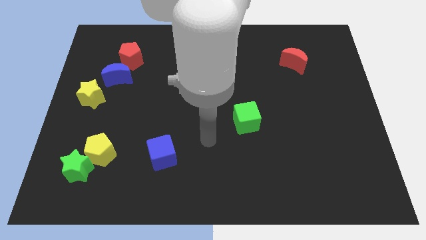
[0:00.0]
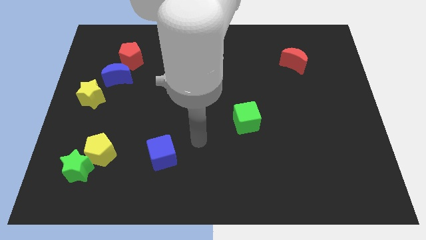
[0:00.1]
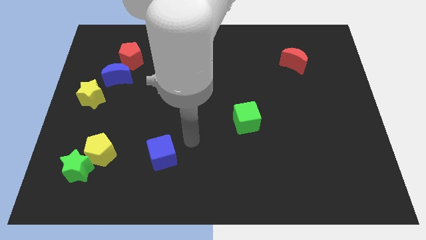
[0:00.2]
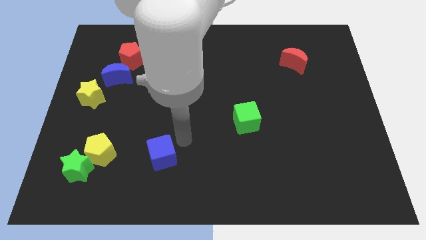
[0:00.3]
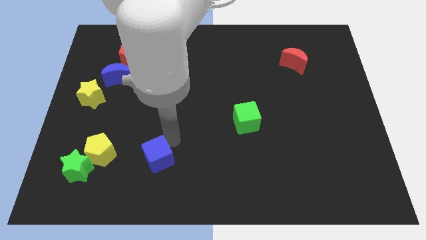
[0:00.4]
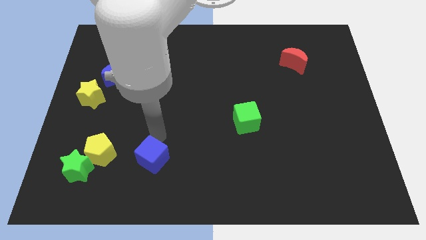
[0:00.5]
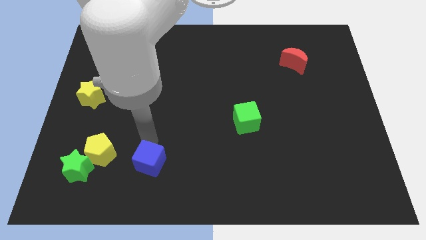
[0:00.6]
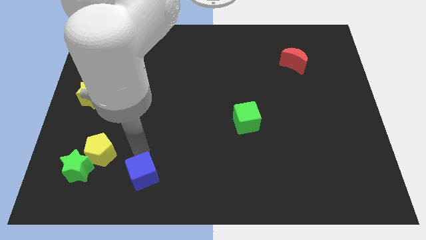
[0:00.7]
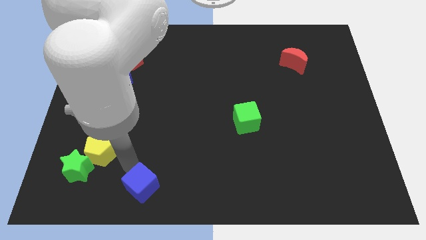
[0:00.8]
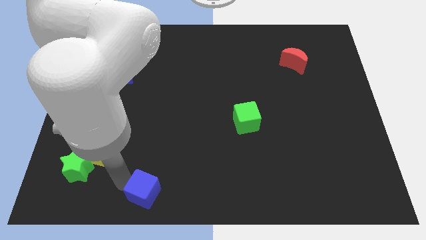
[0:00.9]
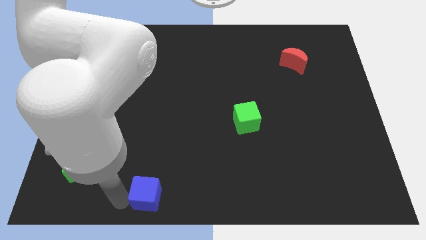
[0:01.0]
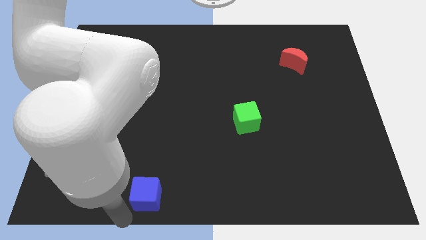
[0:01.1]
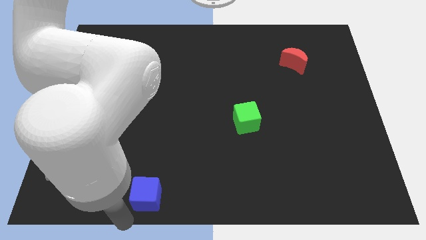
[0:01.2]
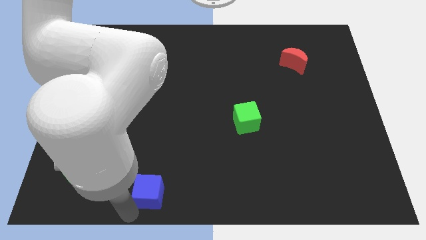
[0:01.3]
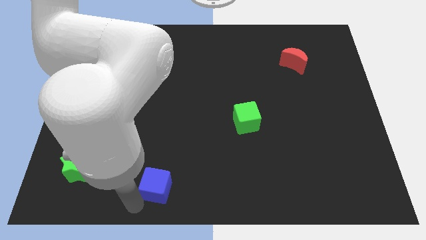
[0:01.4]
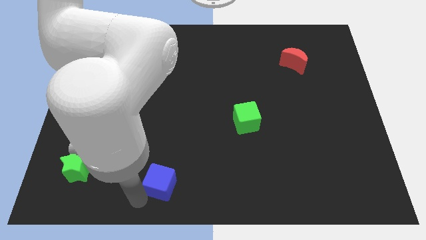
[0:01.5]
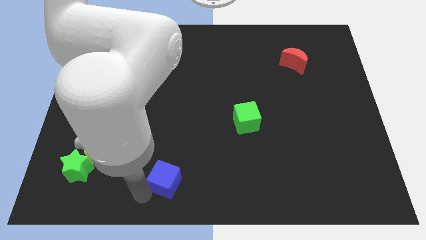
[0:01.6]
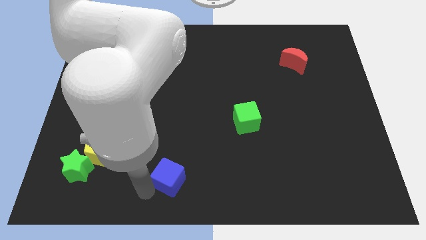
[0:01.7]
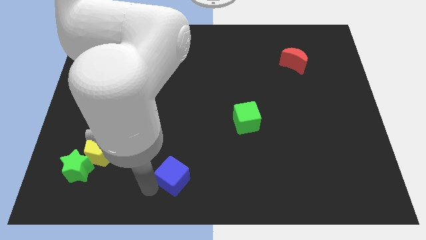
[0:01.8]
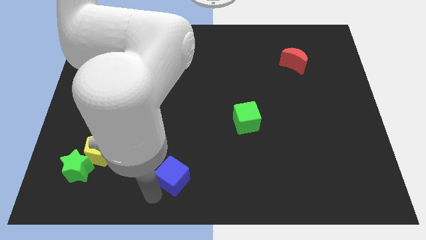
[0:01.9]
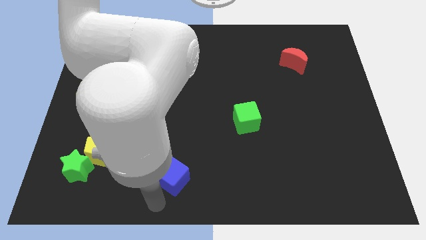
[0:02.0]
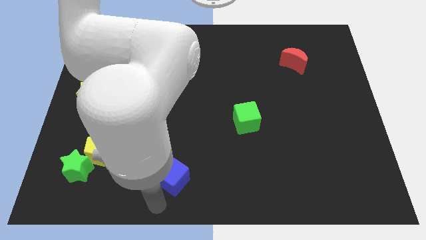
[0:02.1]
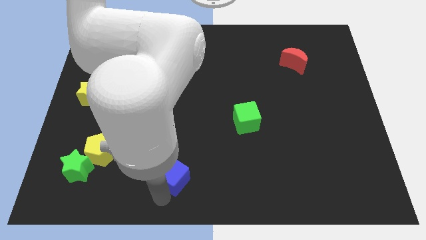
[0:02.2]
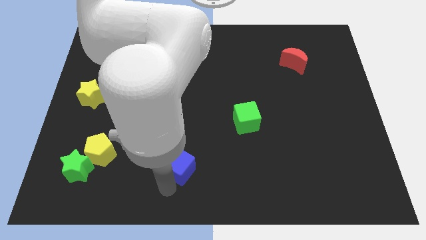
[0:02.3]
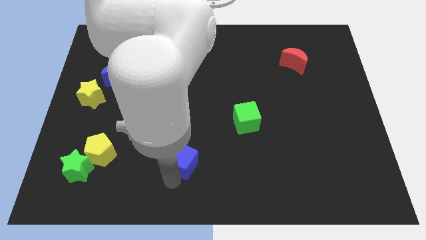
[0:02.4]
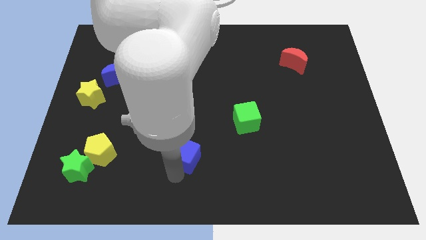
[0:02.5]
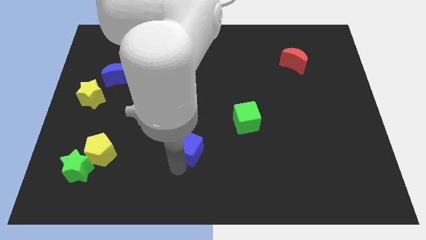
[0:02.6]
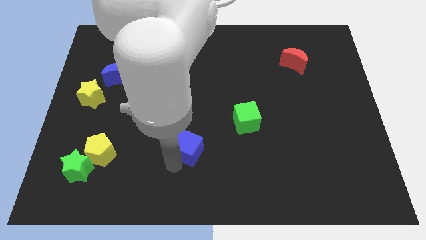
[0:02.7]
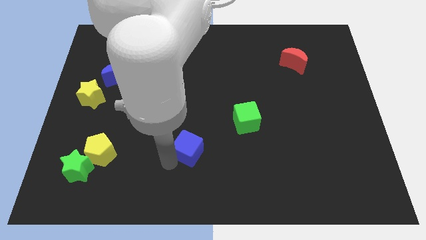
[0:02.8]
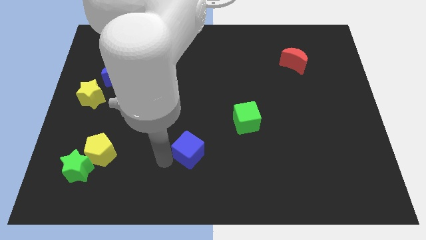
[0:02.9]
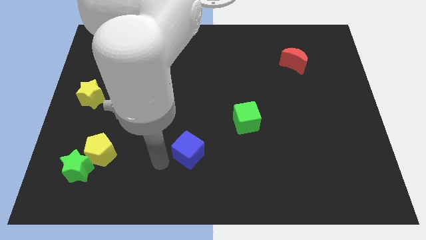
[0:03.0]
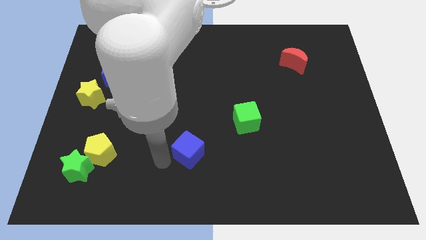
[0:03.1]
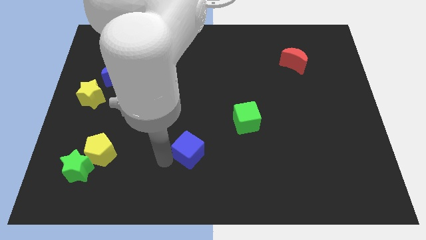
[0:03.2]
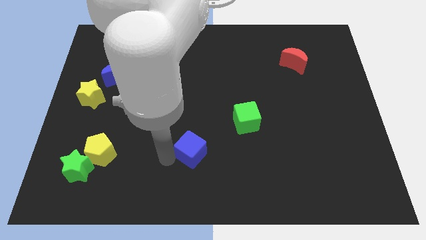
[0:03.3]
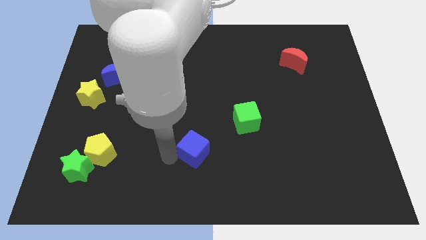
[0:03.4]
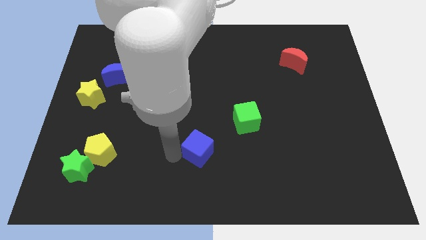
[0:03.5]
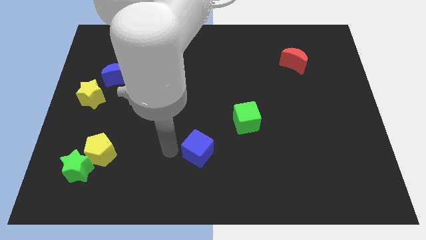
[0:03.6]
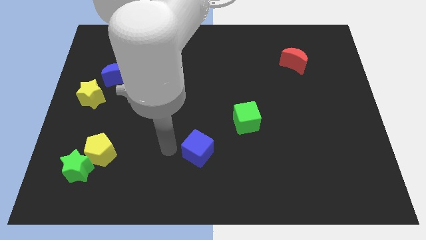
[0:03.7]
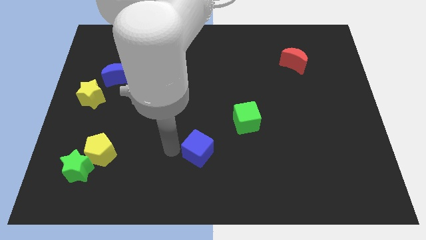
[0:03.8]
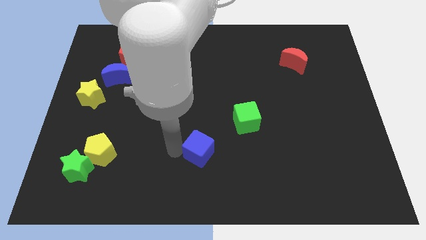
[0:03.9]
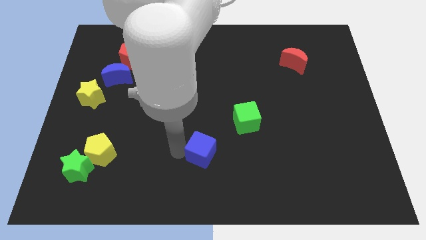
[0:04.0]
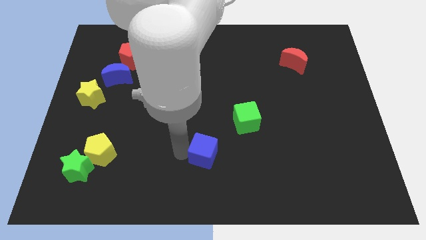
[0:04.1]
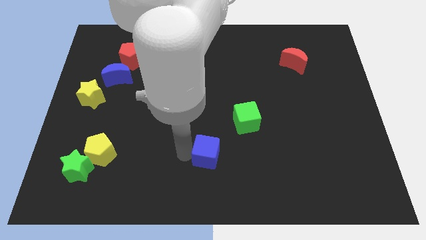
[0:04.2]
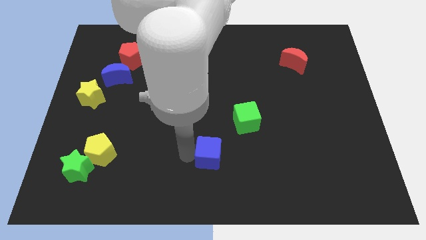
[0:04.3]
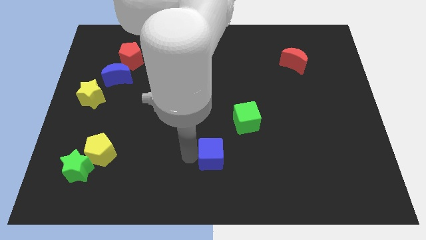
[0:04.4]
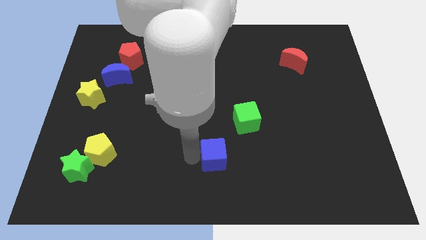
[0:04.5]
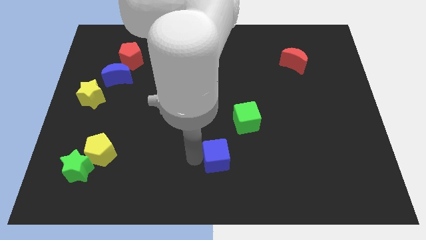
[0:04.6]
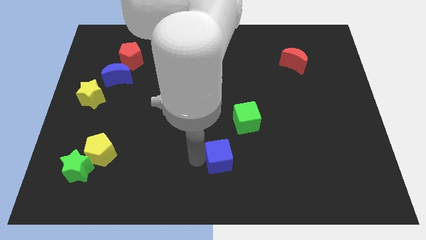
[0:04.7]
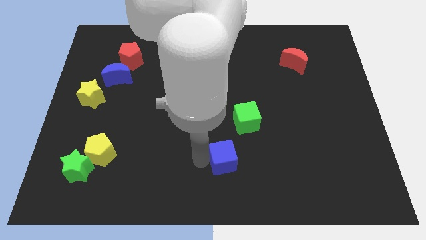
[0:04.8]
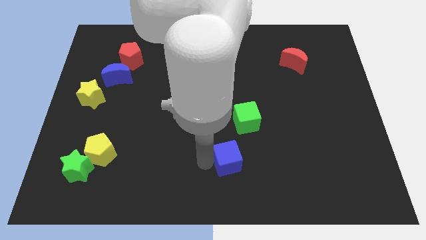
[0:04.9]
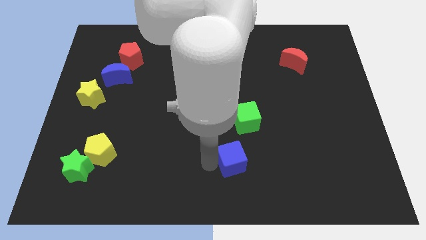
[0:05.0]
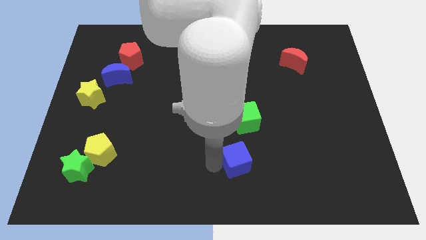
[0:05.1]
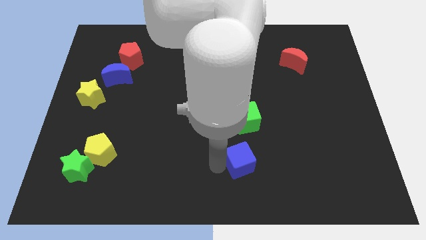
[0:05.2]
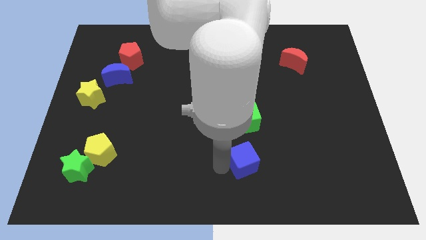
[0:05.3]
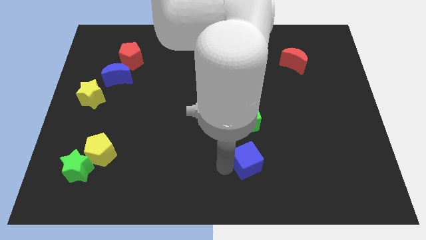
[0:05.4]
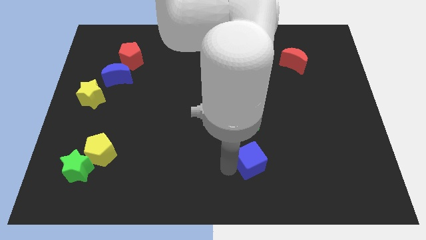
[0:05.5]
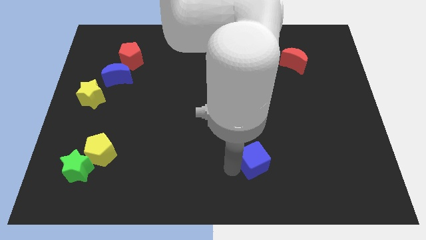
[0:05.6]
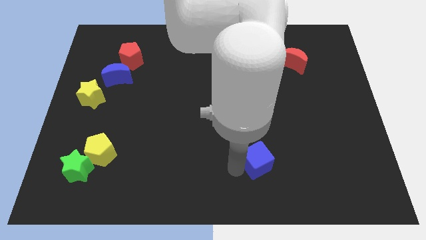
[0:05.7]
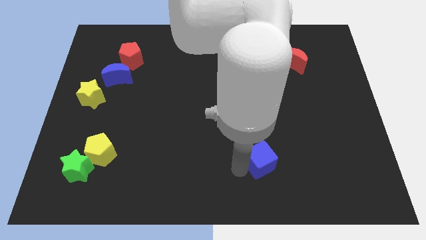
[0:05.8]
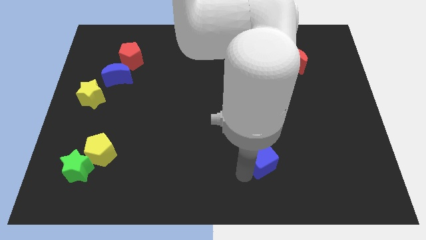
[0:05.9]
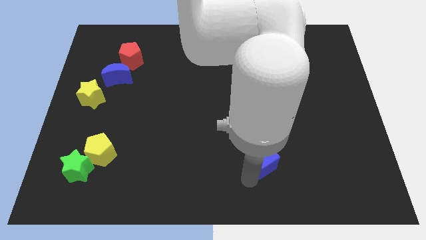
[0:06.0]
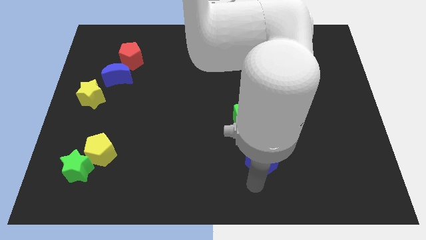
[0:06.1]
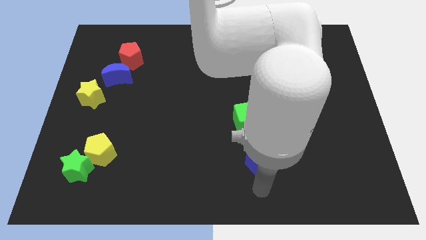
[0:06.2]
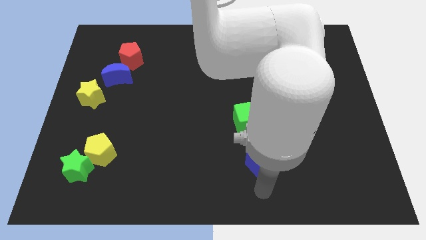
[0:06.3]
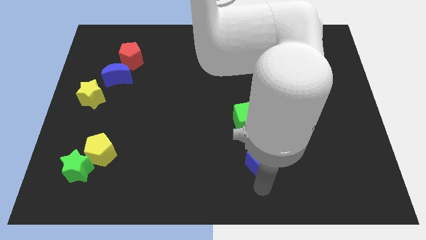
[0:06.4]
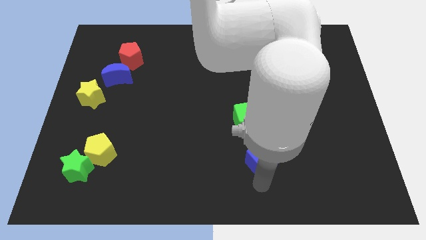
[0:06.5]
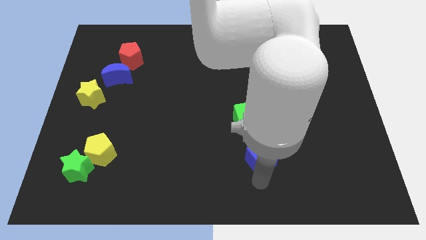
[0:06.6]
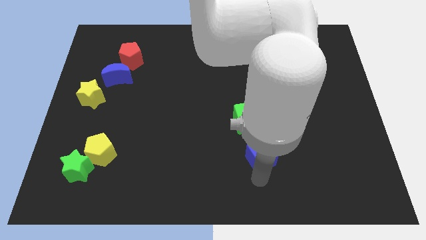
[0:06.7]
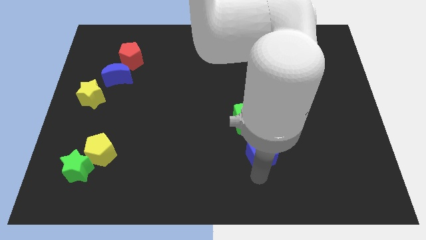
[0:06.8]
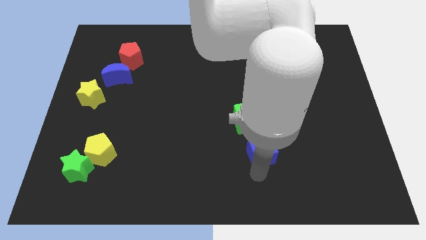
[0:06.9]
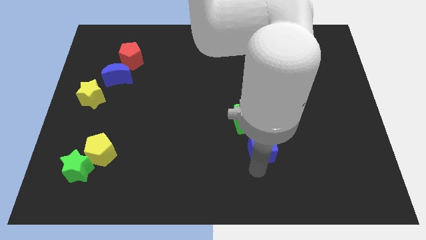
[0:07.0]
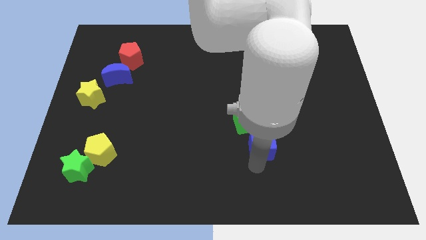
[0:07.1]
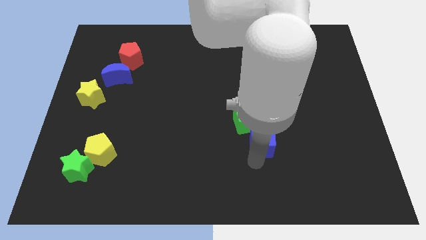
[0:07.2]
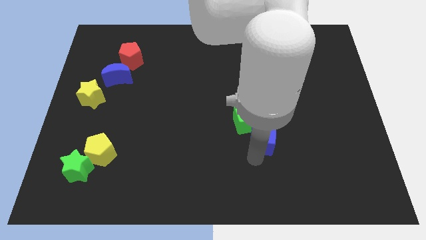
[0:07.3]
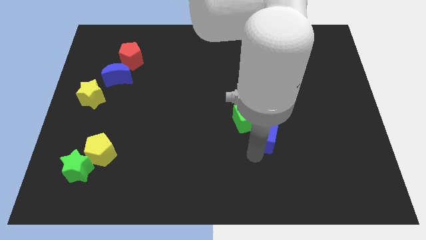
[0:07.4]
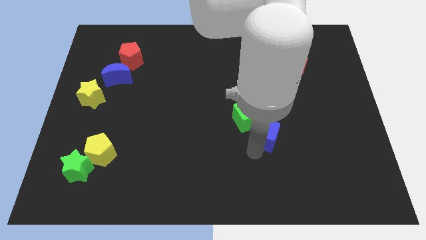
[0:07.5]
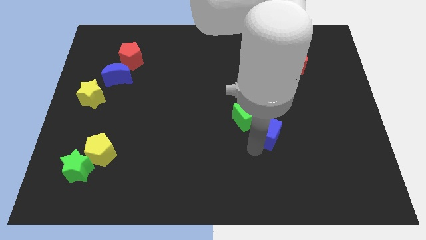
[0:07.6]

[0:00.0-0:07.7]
move the blue cube just right of the green cube
